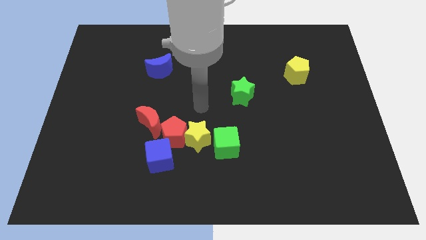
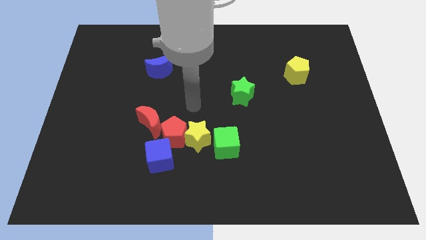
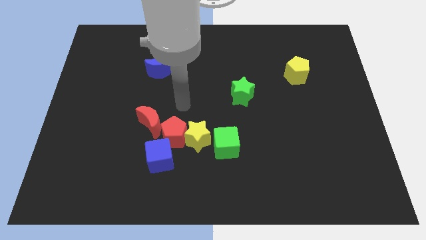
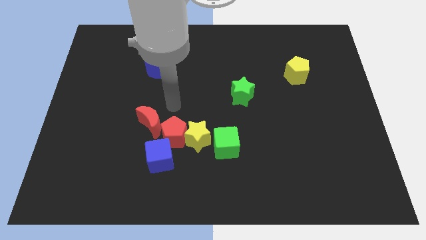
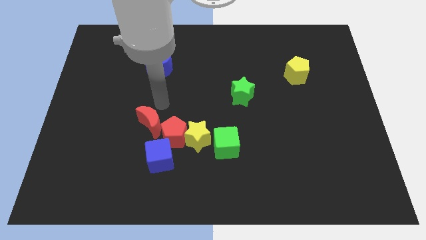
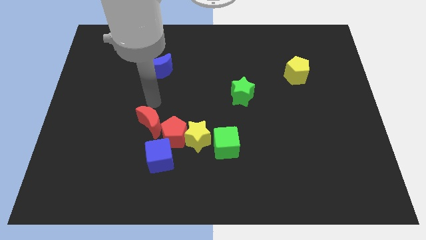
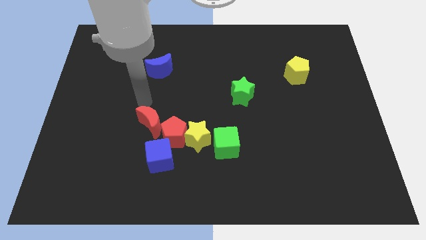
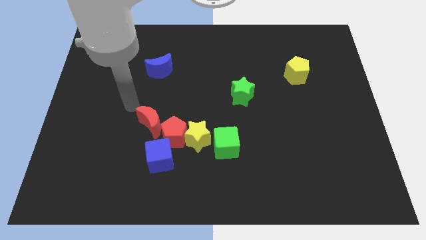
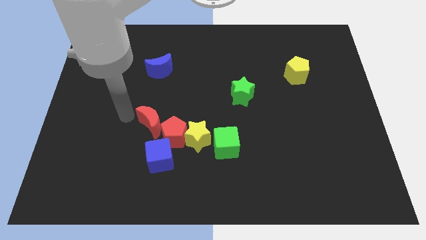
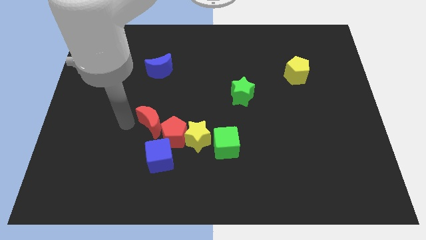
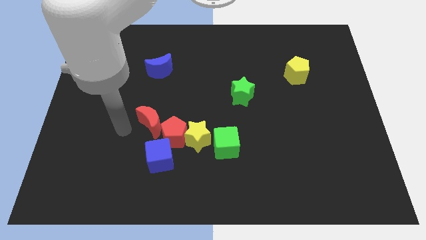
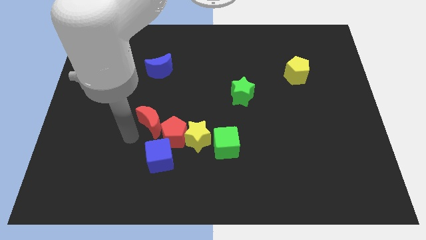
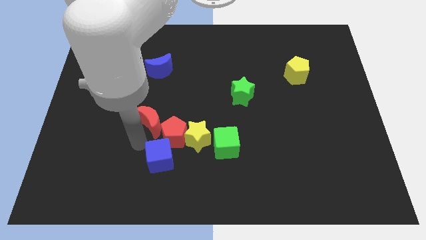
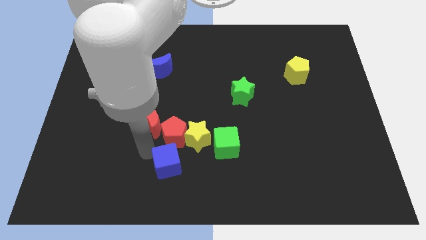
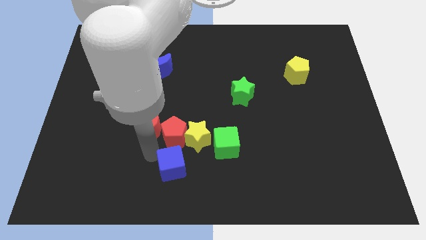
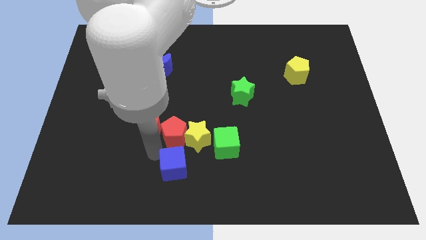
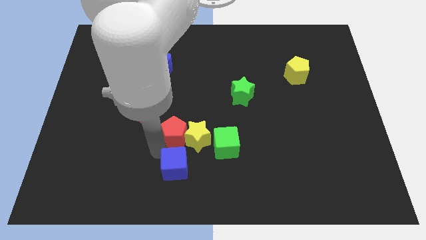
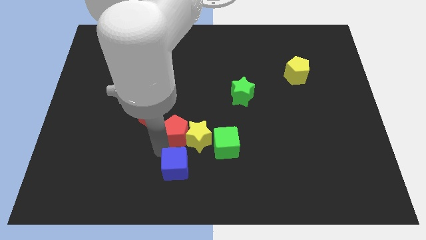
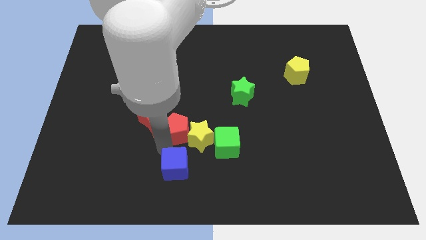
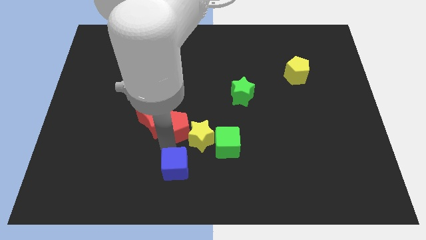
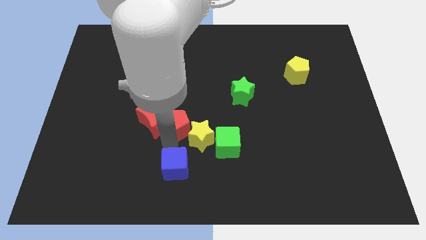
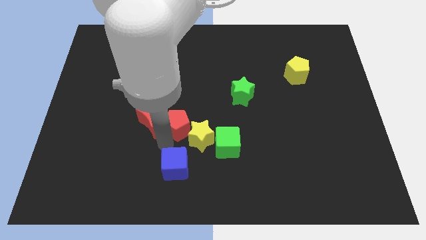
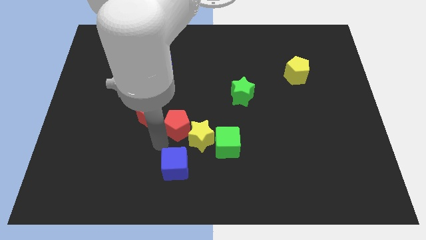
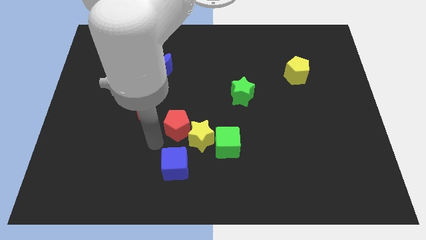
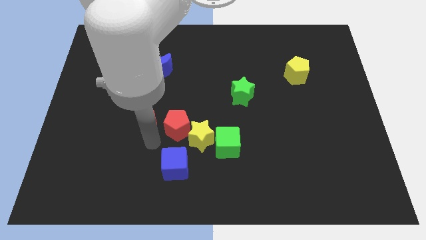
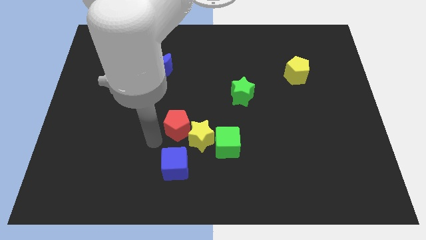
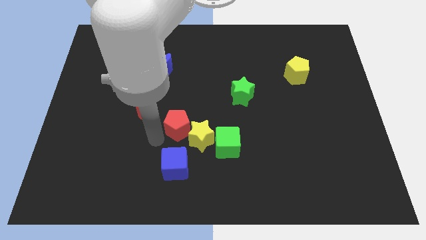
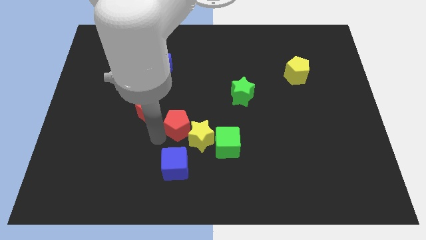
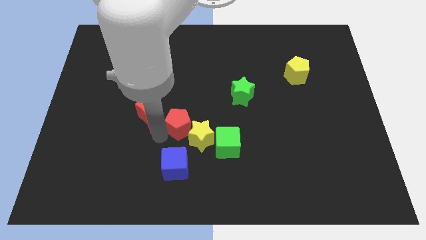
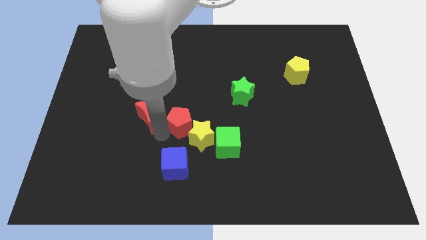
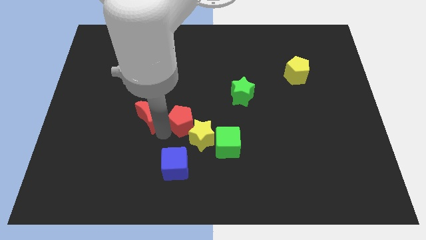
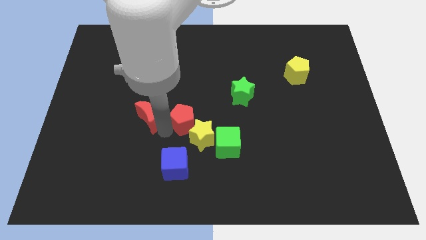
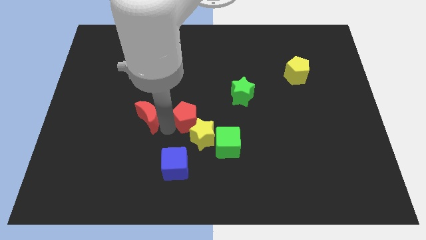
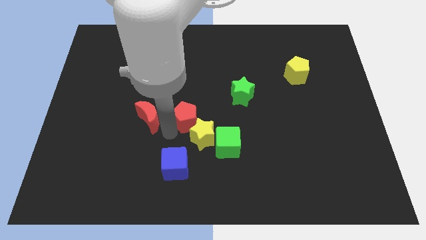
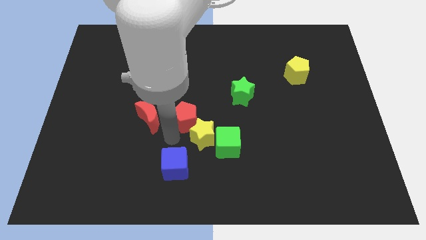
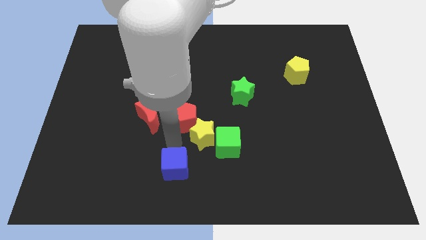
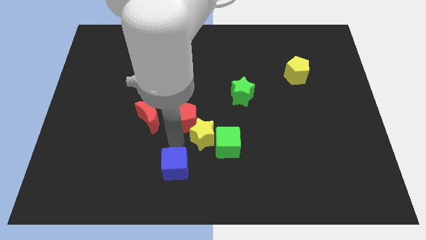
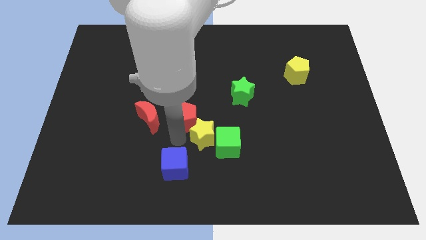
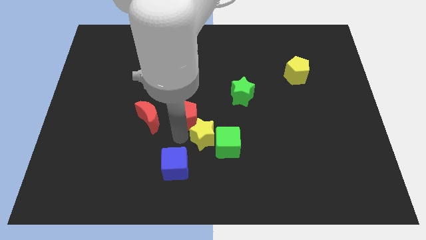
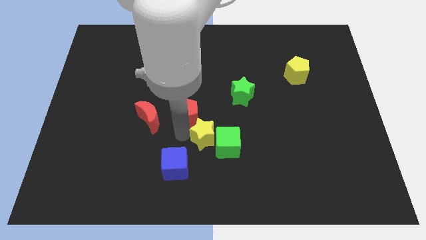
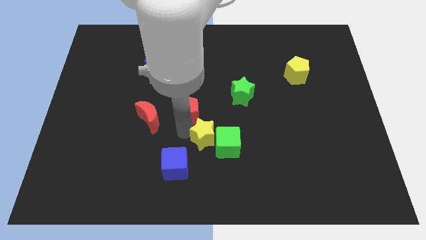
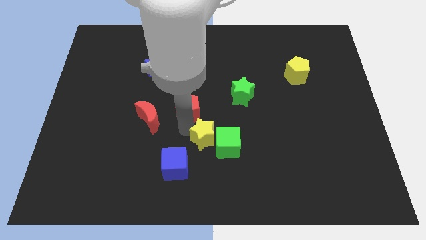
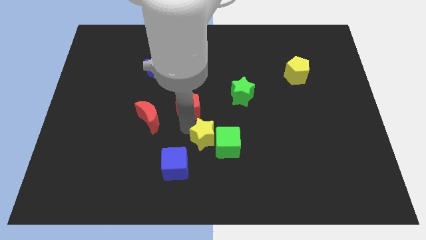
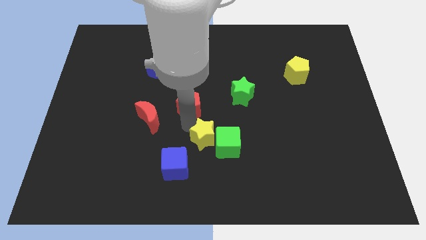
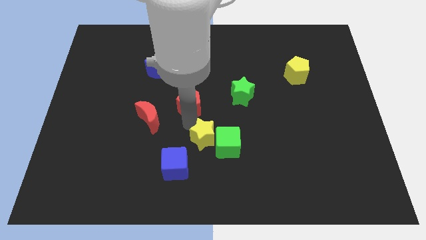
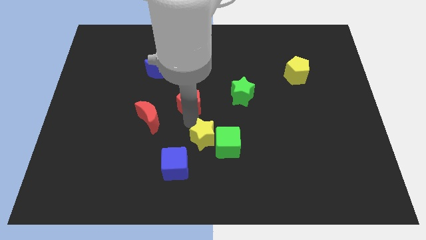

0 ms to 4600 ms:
move the red pentagon away from the group

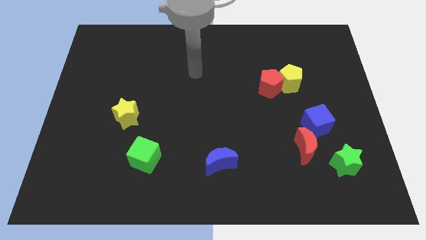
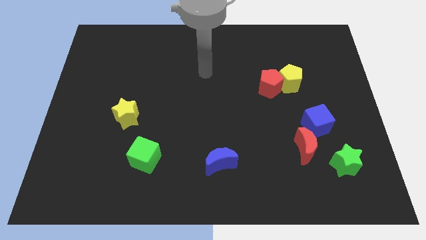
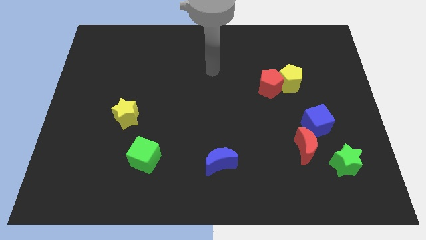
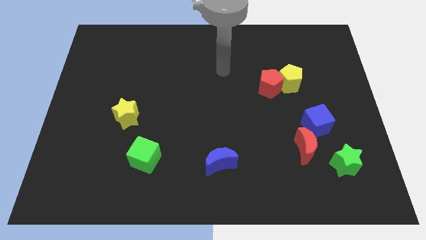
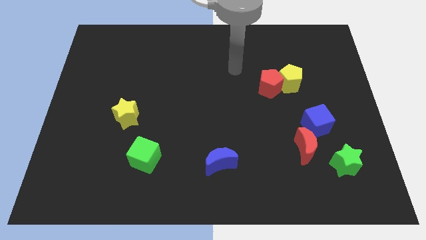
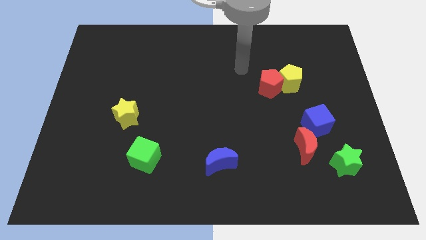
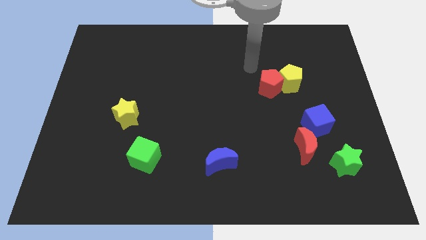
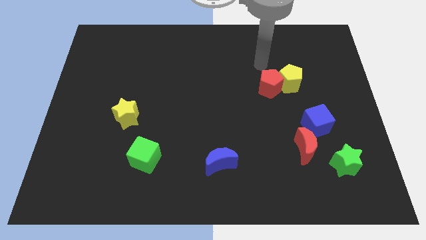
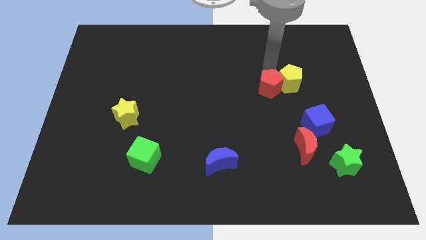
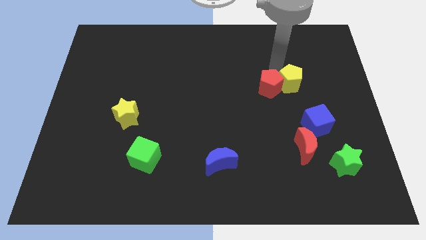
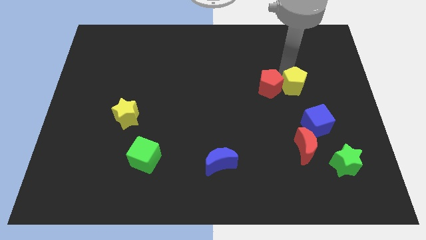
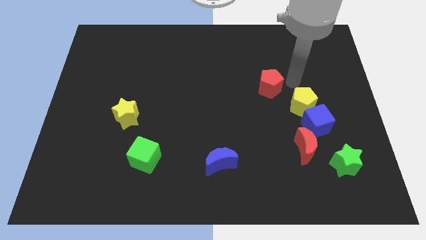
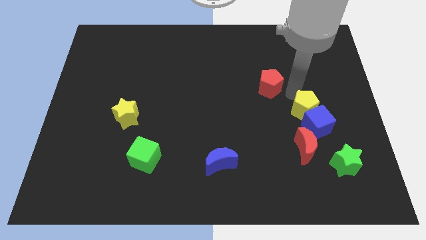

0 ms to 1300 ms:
pull the red pentagon apart from the yellow pentagon

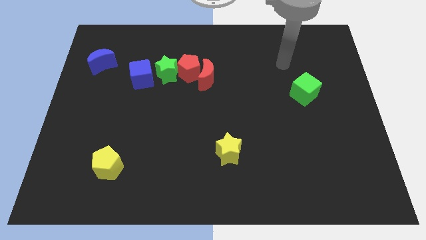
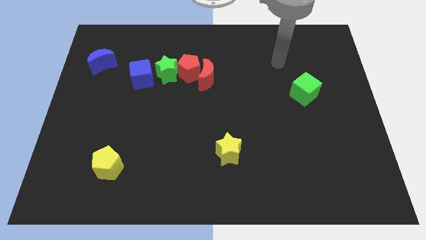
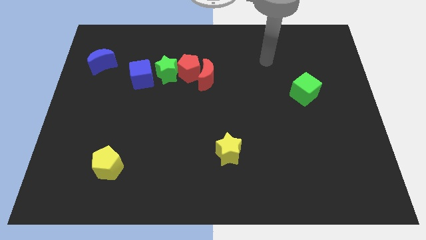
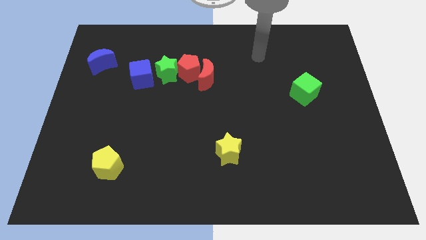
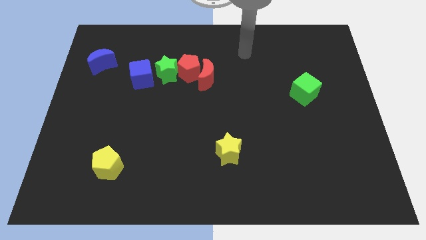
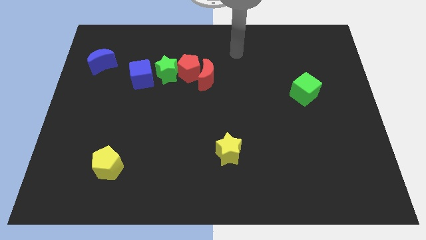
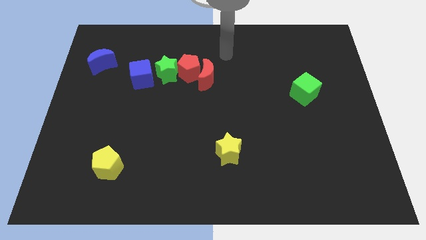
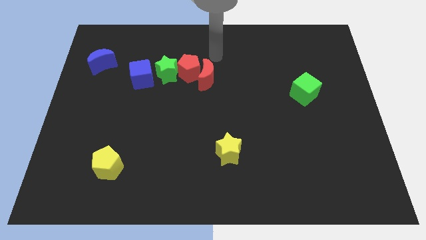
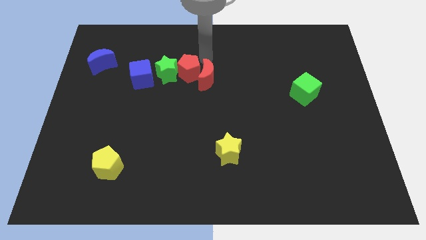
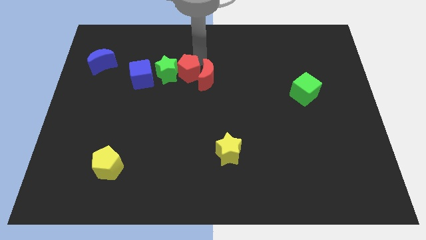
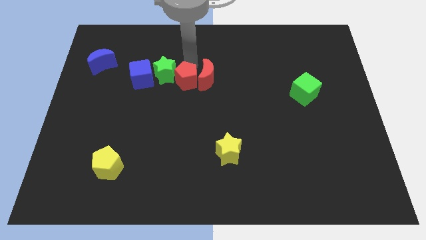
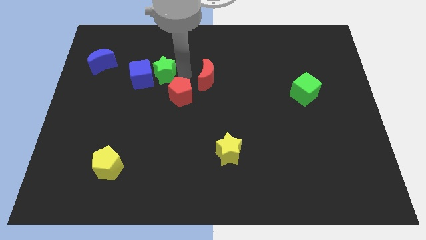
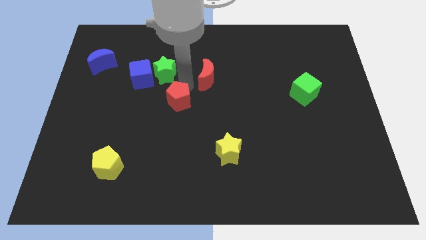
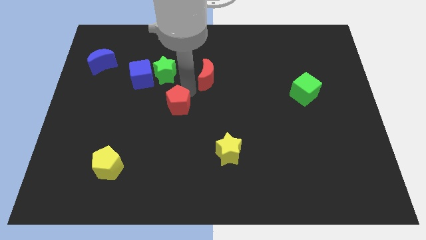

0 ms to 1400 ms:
pull the red moon apart from the red pentagon

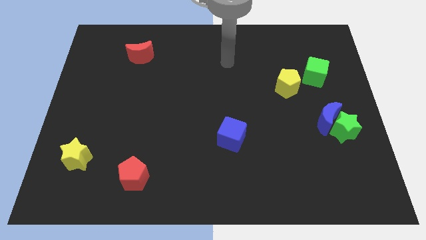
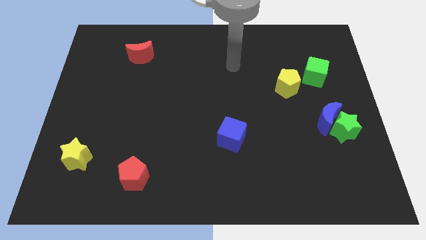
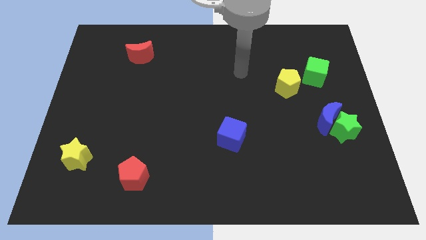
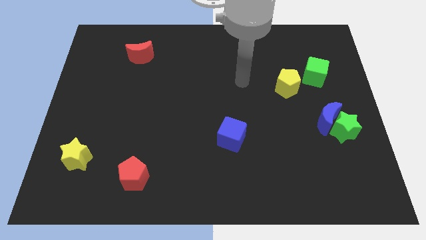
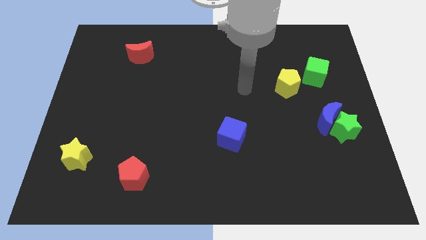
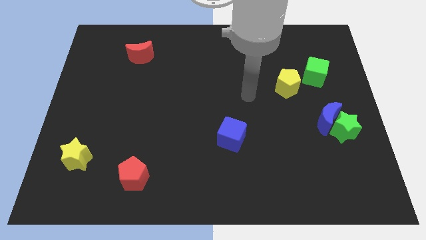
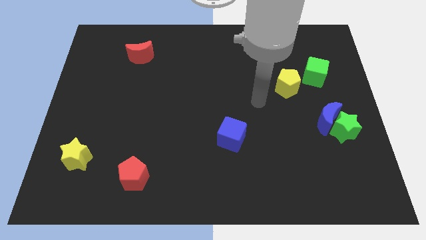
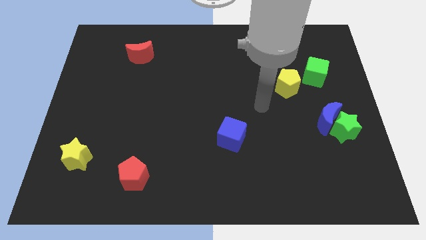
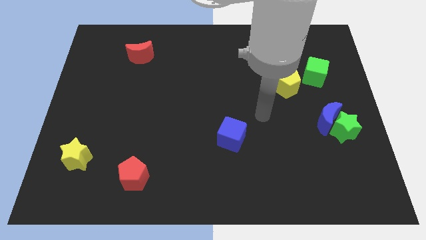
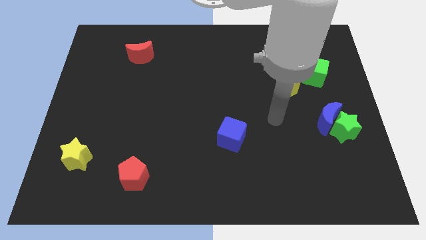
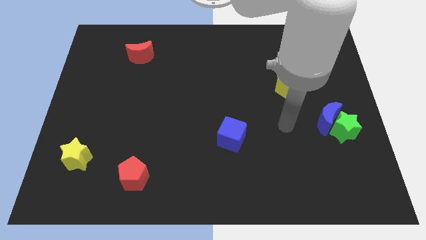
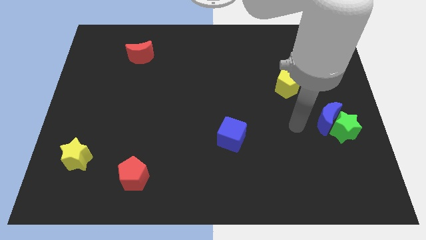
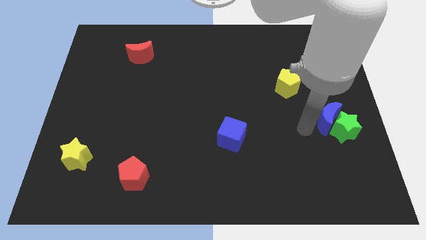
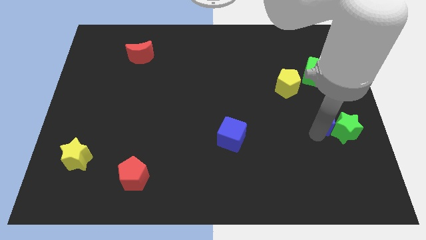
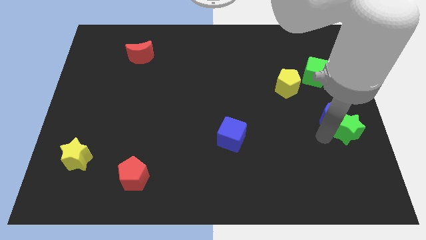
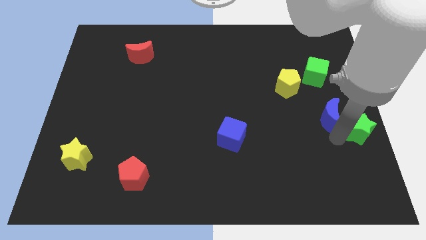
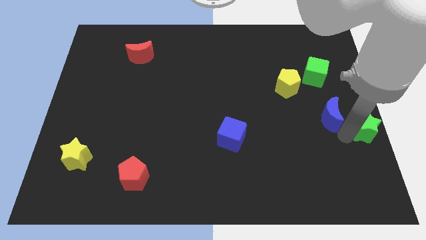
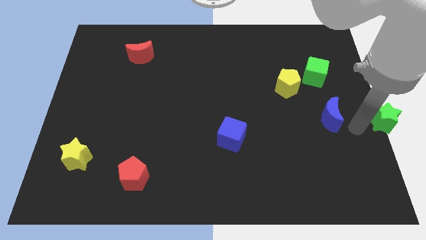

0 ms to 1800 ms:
pull the blue moon apart from the green star

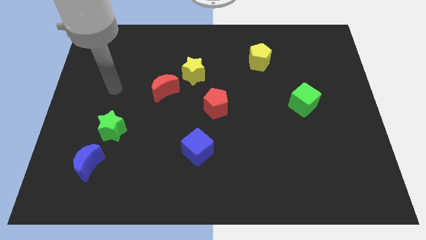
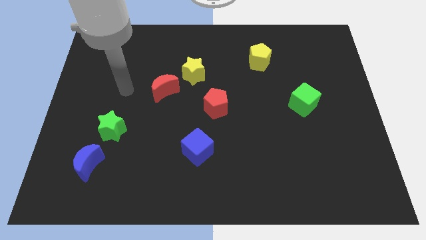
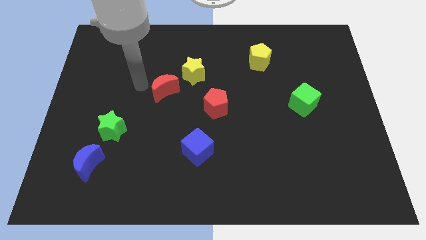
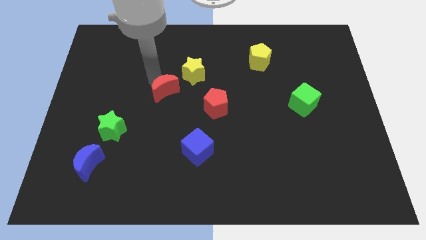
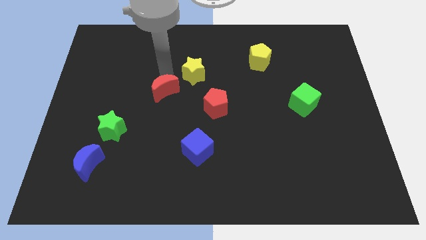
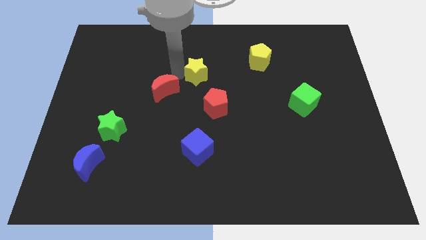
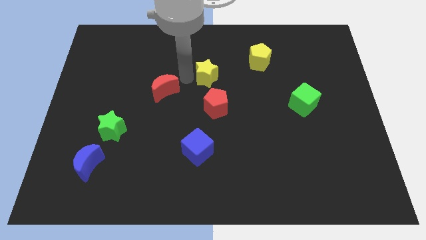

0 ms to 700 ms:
move the red moon away from the yellow star
